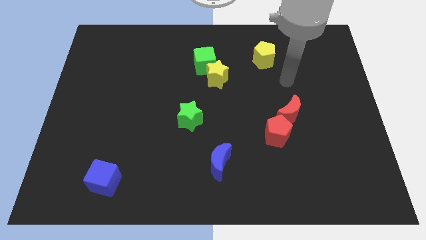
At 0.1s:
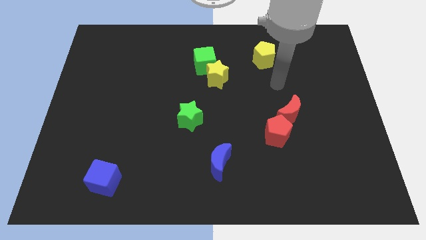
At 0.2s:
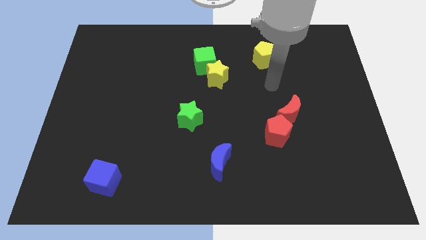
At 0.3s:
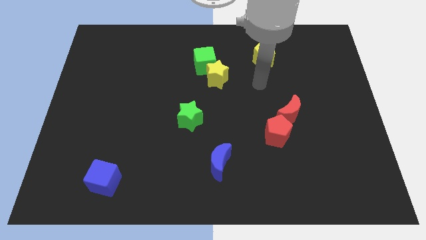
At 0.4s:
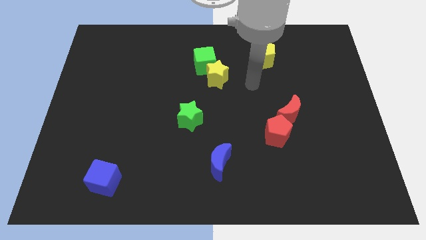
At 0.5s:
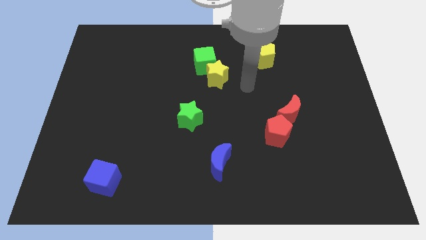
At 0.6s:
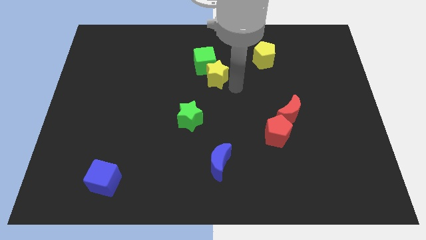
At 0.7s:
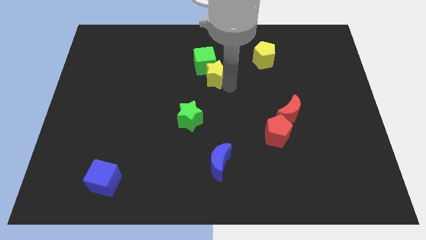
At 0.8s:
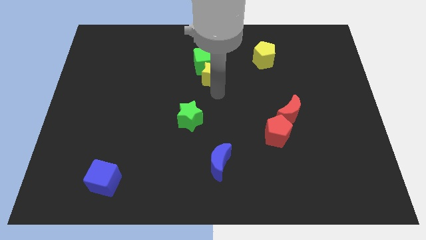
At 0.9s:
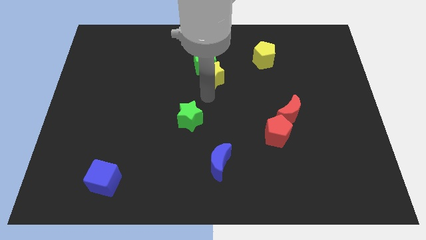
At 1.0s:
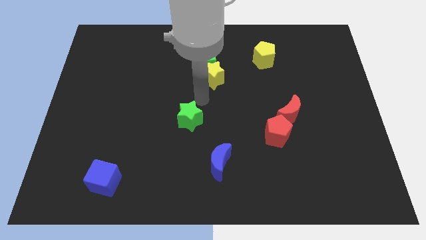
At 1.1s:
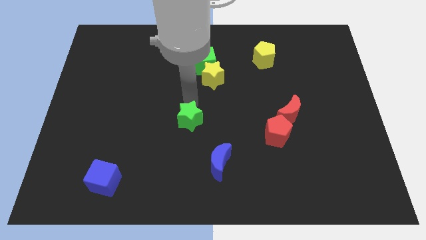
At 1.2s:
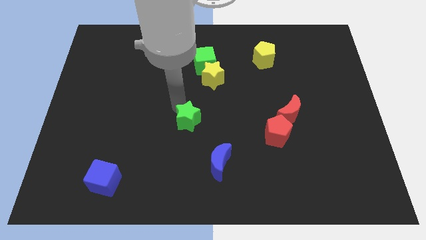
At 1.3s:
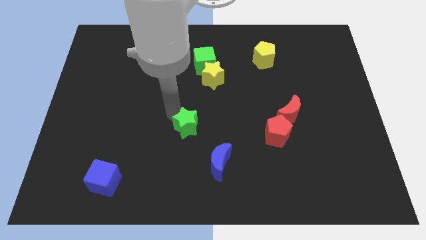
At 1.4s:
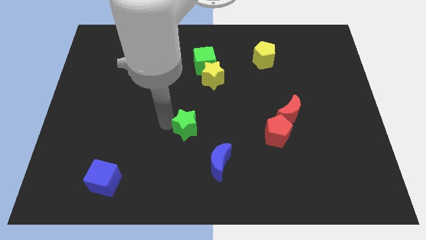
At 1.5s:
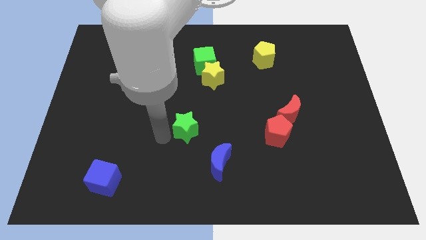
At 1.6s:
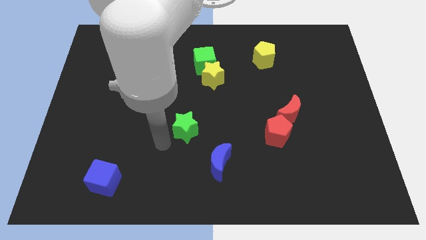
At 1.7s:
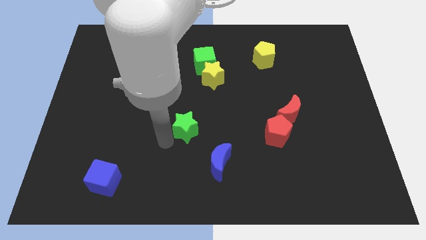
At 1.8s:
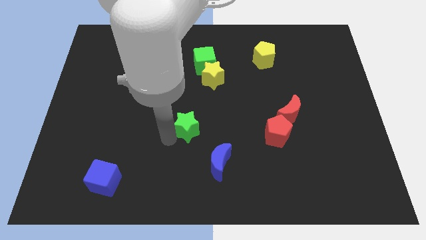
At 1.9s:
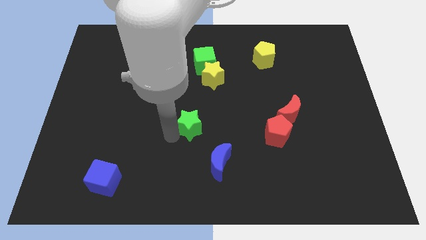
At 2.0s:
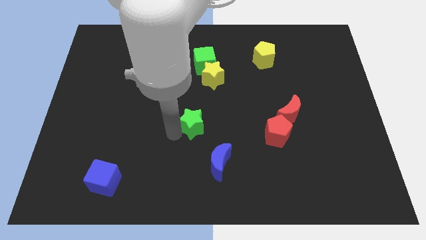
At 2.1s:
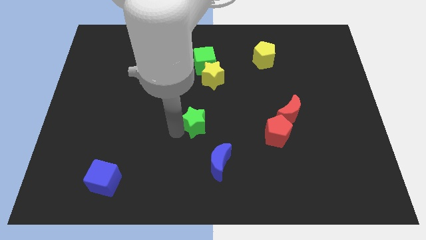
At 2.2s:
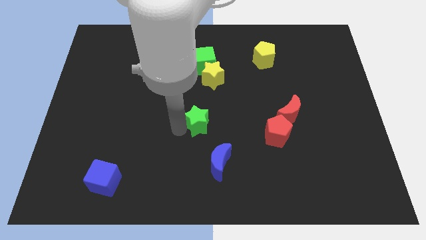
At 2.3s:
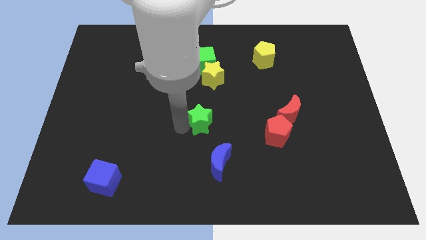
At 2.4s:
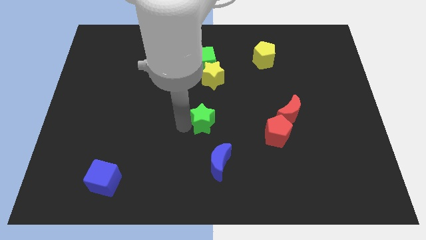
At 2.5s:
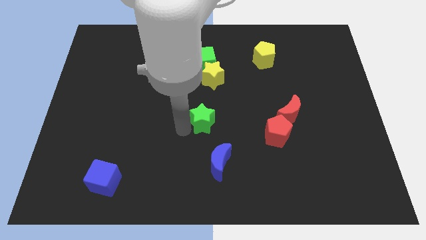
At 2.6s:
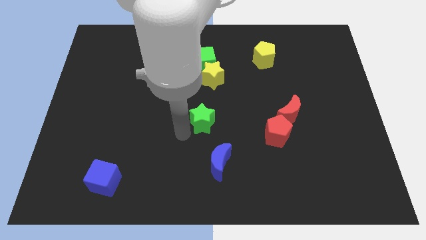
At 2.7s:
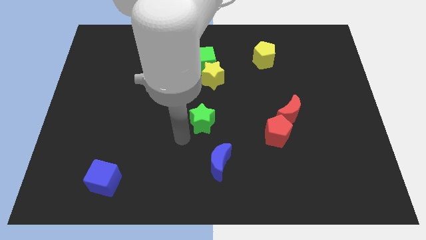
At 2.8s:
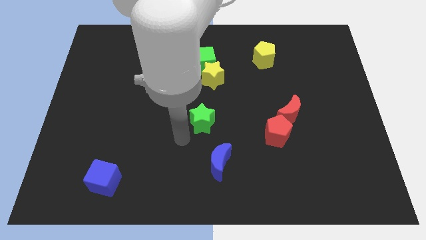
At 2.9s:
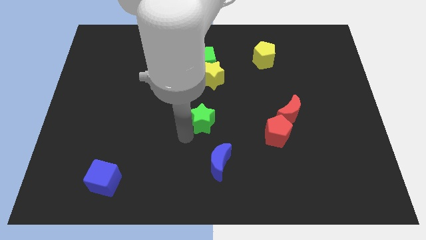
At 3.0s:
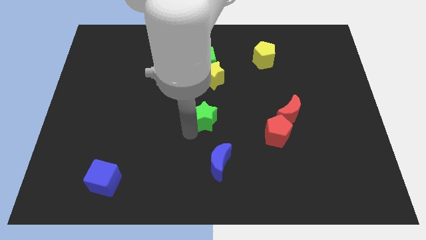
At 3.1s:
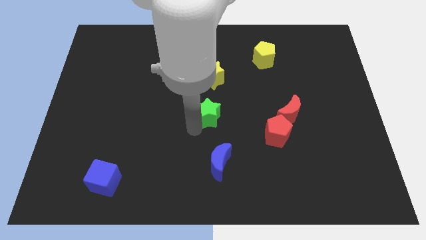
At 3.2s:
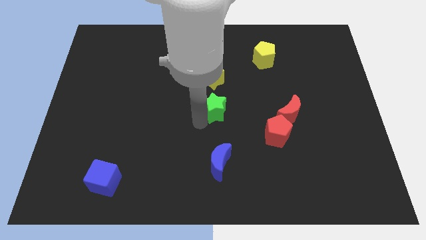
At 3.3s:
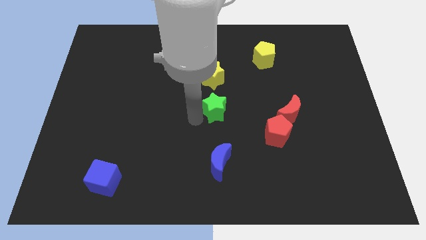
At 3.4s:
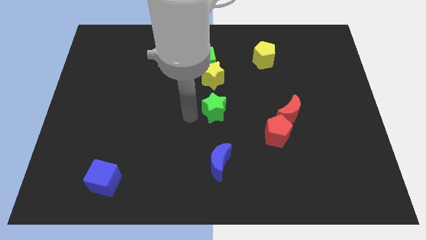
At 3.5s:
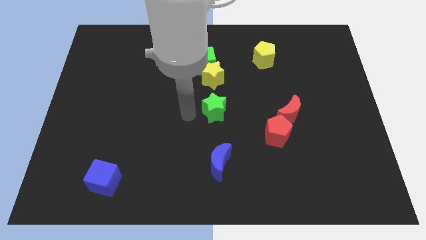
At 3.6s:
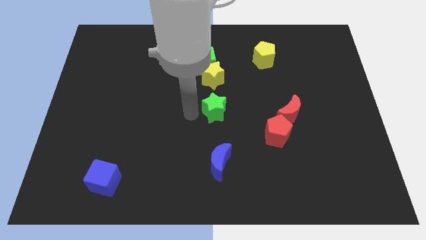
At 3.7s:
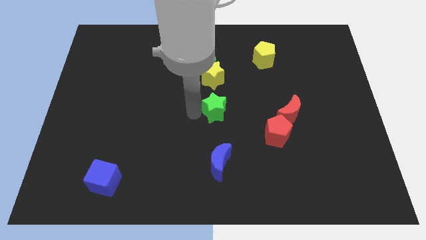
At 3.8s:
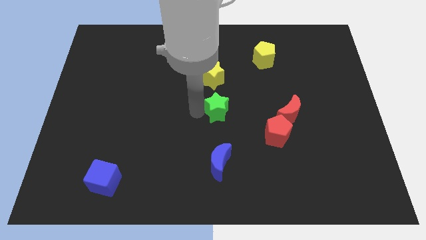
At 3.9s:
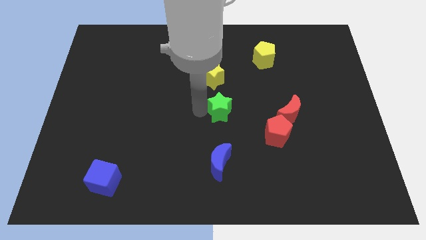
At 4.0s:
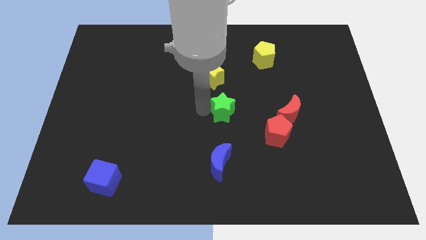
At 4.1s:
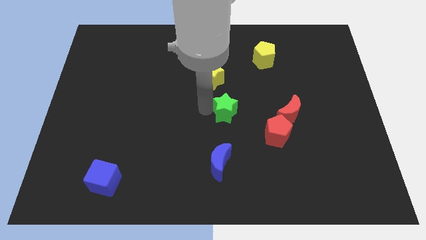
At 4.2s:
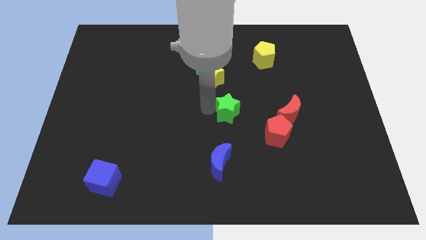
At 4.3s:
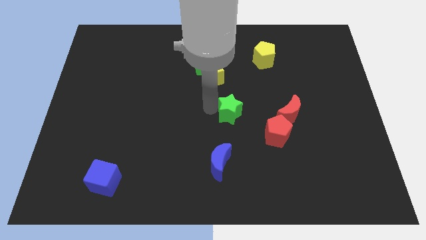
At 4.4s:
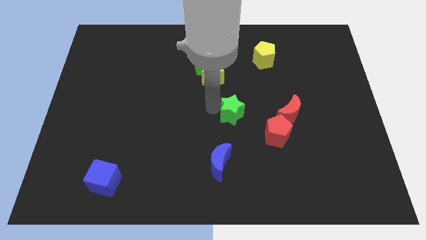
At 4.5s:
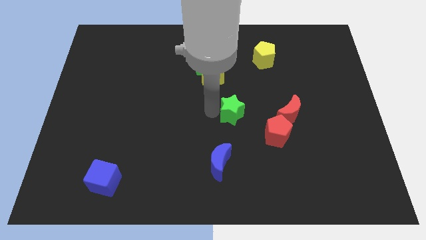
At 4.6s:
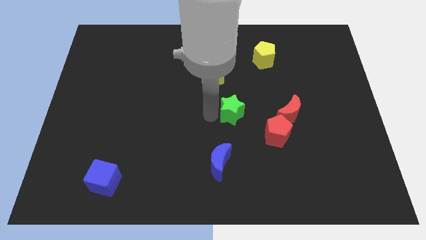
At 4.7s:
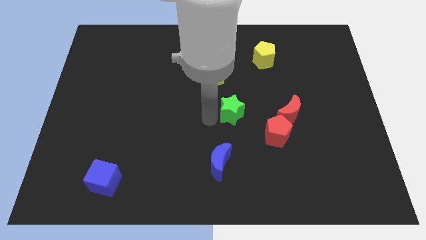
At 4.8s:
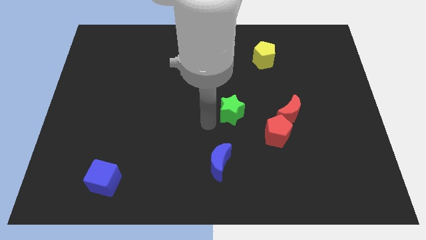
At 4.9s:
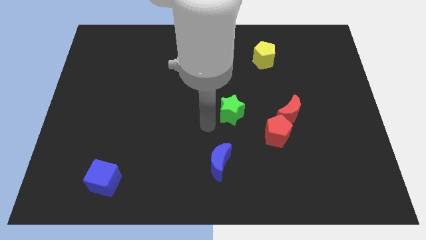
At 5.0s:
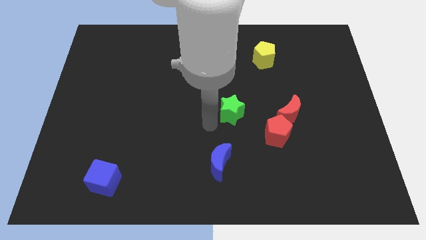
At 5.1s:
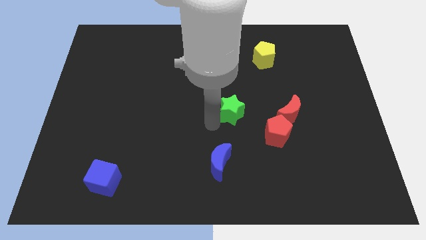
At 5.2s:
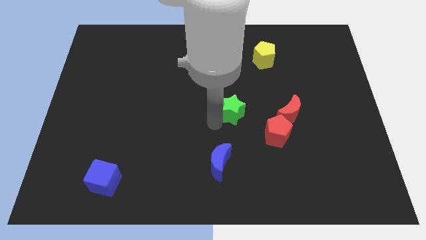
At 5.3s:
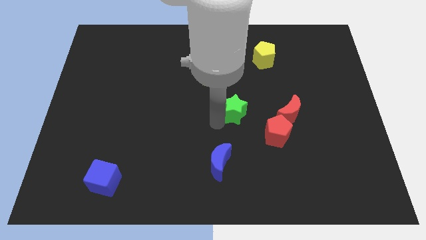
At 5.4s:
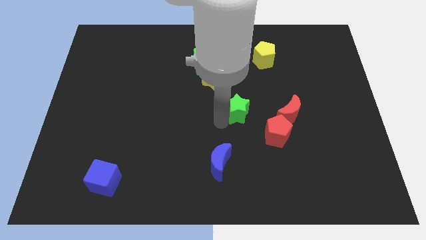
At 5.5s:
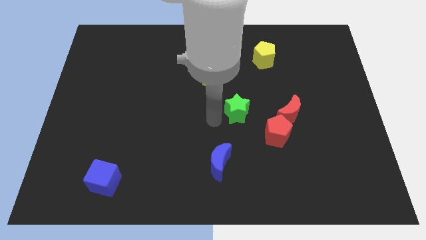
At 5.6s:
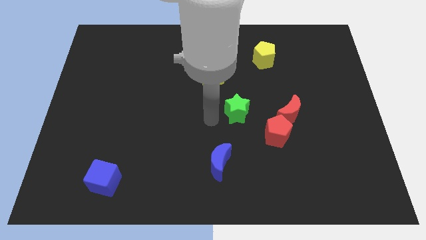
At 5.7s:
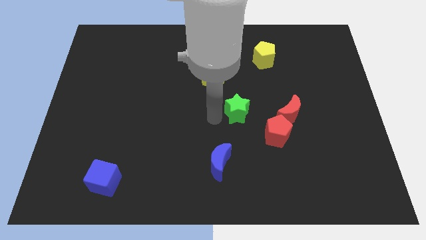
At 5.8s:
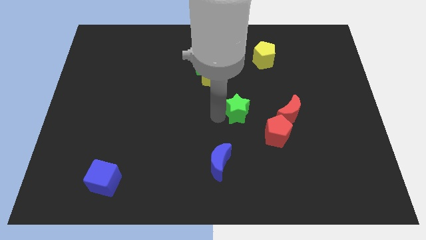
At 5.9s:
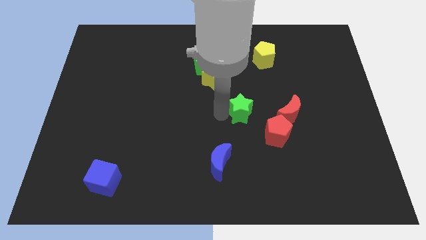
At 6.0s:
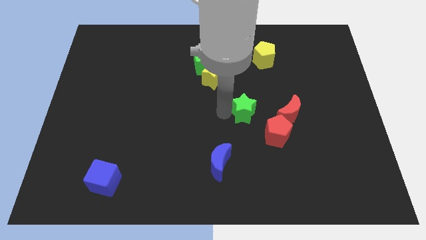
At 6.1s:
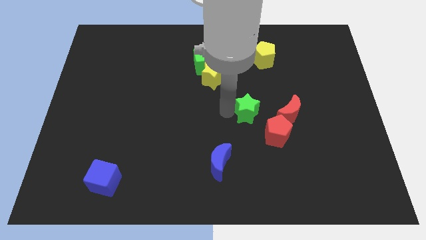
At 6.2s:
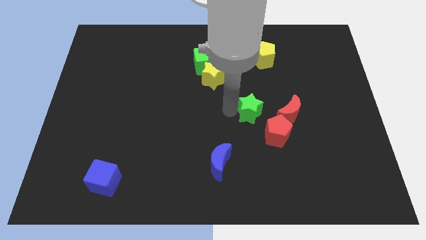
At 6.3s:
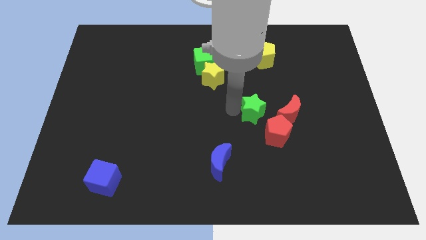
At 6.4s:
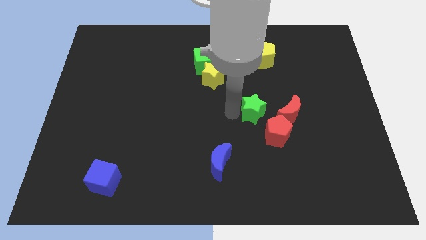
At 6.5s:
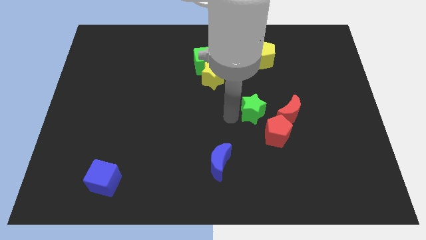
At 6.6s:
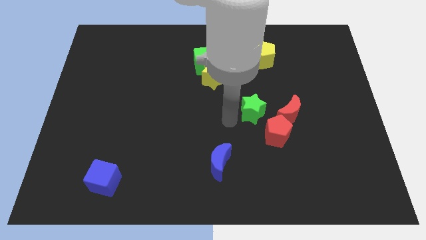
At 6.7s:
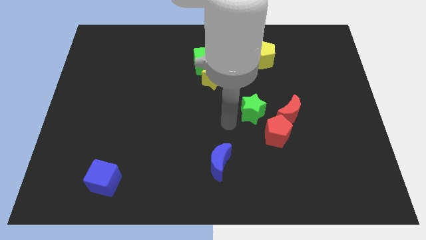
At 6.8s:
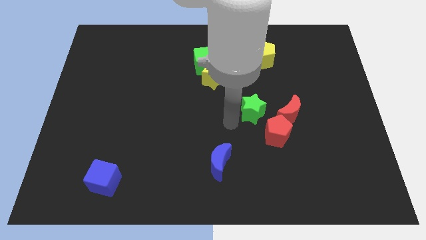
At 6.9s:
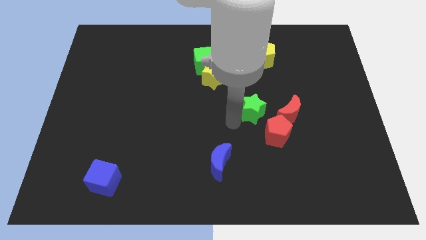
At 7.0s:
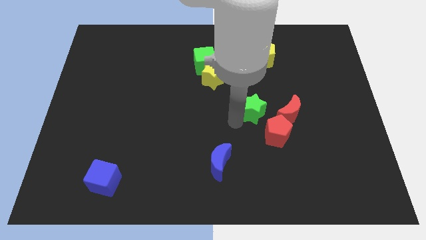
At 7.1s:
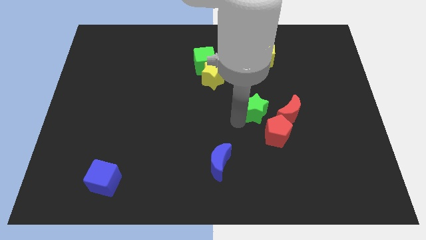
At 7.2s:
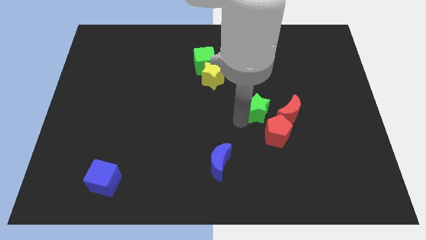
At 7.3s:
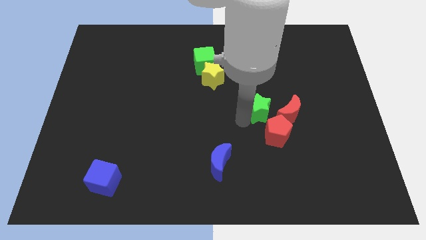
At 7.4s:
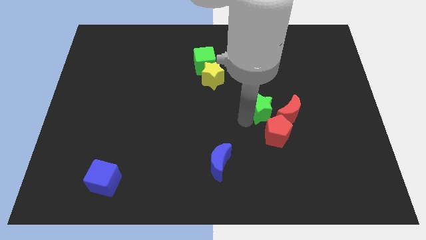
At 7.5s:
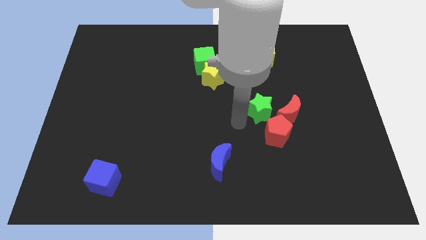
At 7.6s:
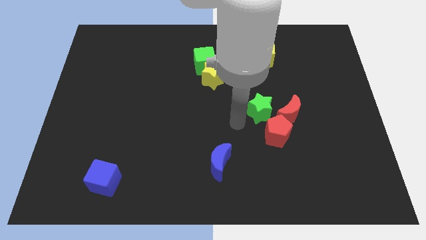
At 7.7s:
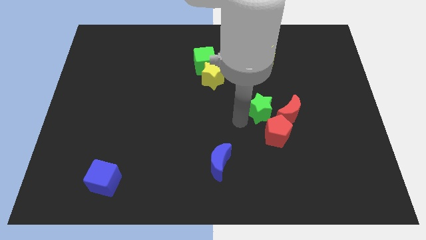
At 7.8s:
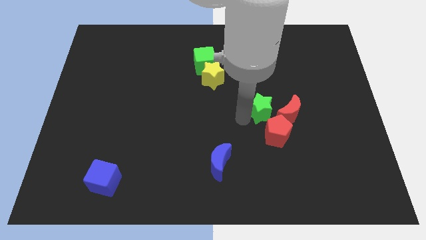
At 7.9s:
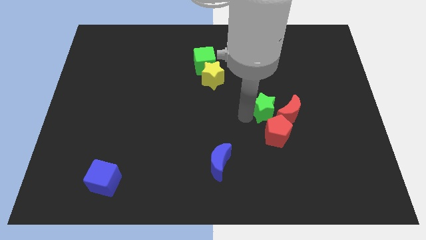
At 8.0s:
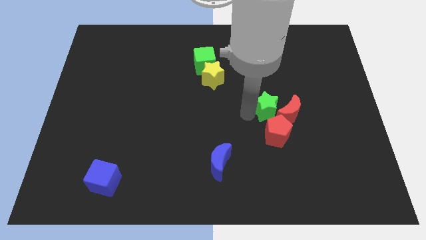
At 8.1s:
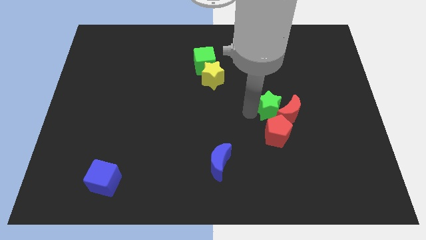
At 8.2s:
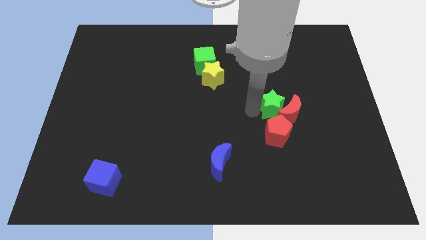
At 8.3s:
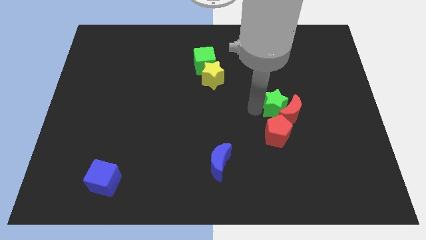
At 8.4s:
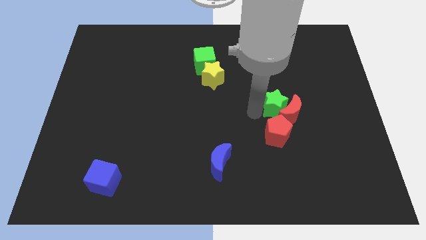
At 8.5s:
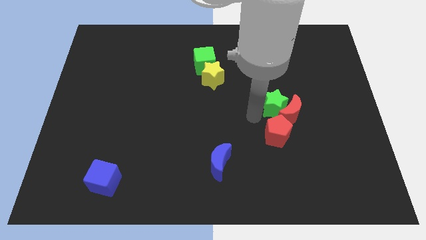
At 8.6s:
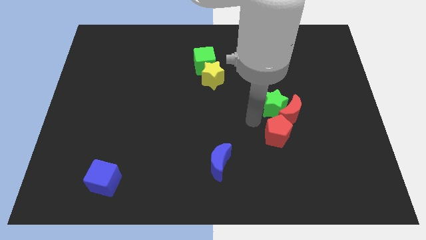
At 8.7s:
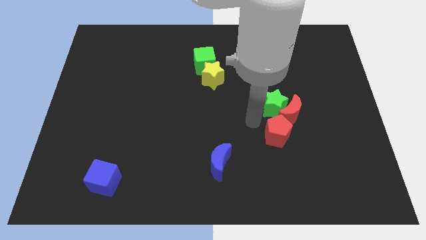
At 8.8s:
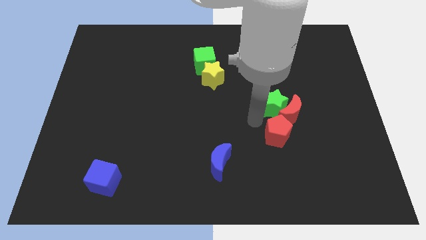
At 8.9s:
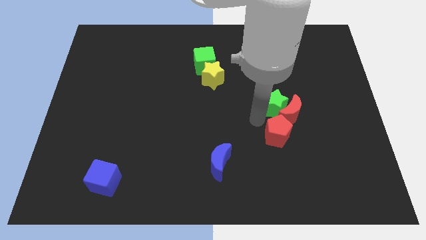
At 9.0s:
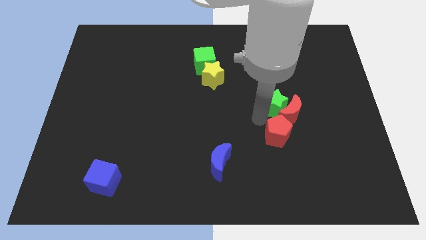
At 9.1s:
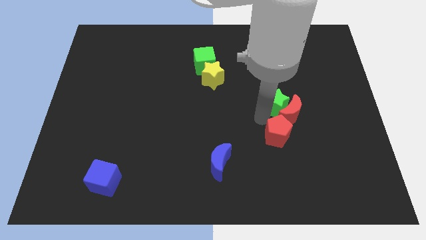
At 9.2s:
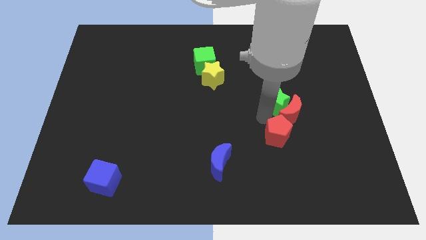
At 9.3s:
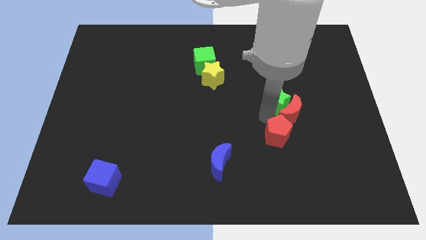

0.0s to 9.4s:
slide the green star to the right
